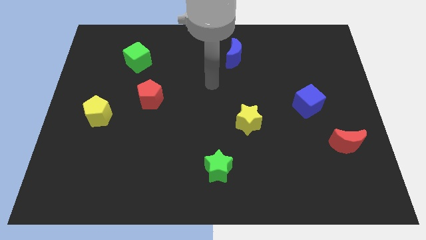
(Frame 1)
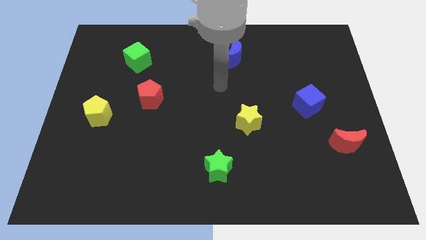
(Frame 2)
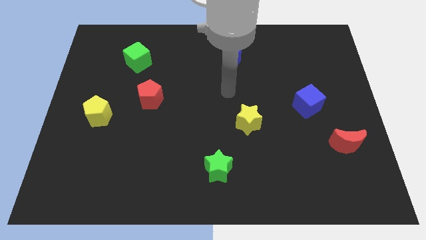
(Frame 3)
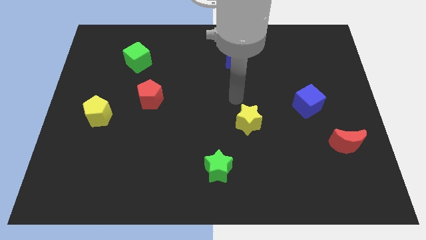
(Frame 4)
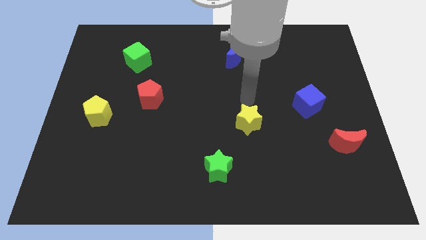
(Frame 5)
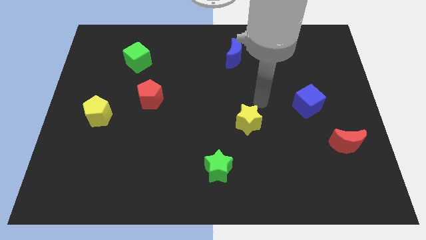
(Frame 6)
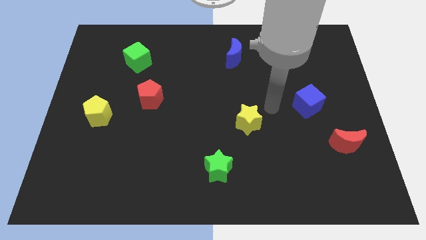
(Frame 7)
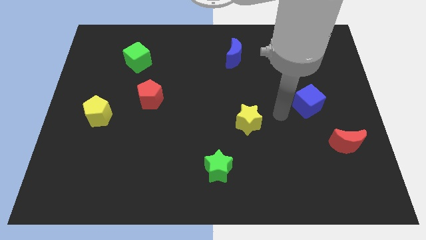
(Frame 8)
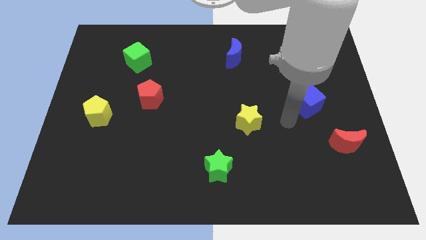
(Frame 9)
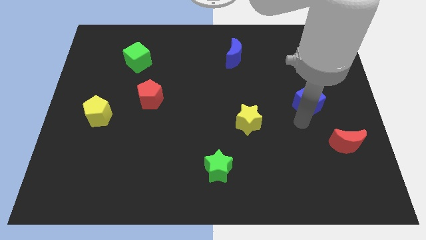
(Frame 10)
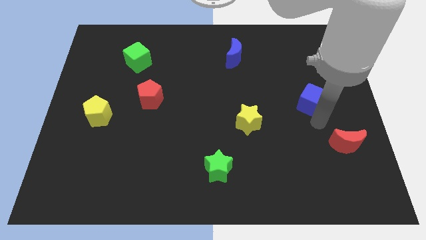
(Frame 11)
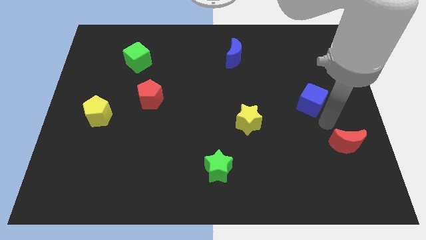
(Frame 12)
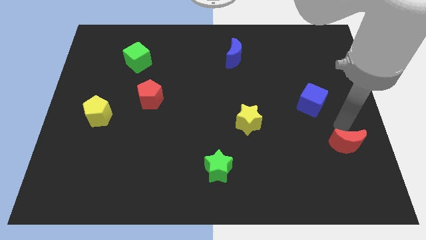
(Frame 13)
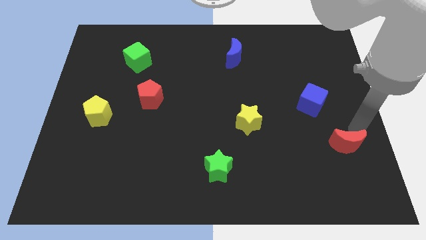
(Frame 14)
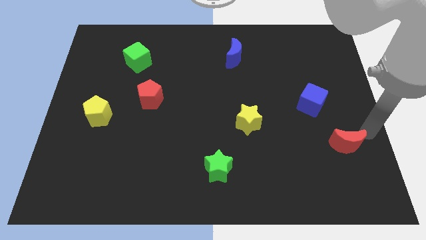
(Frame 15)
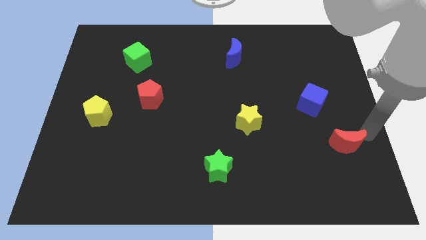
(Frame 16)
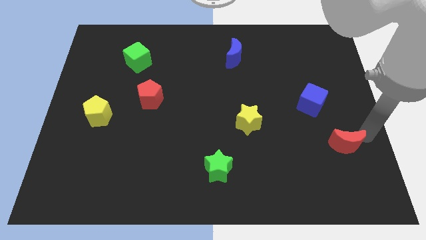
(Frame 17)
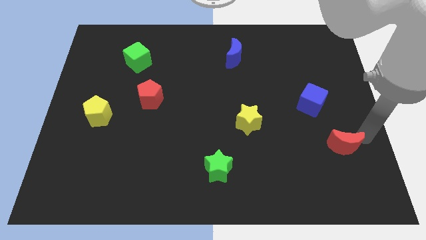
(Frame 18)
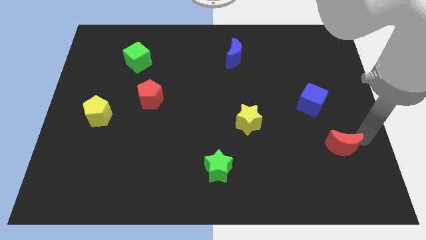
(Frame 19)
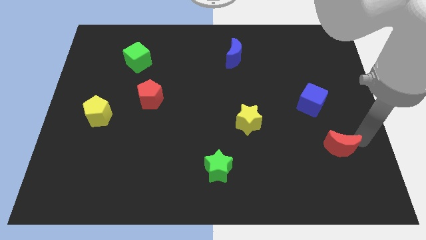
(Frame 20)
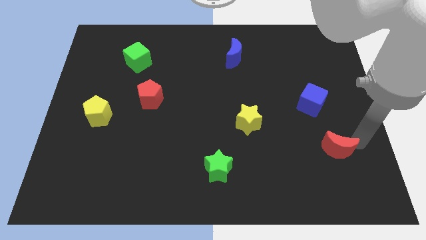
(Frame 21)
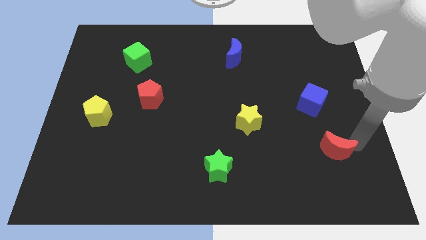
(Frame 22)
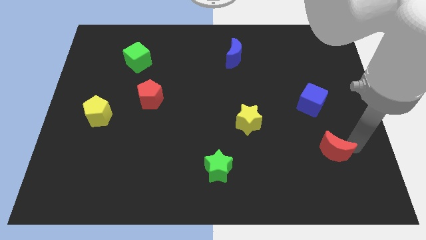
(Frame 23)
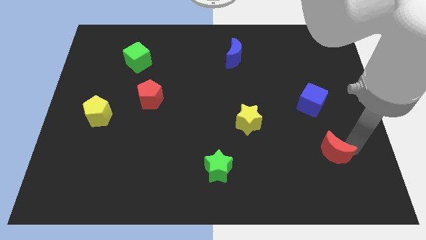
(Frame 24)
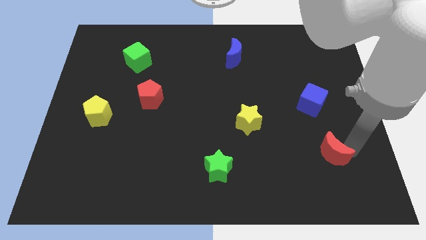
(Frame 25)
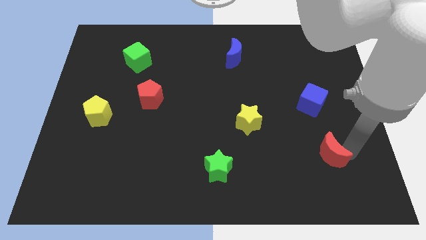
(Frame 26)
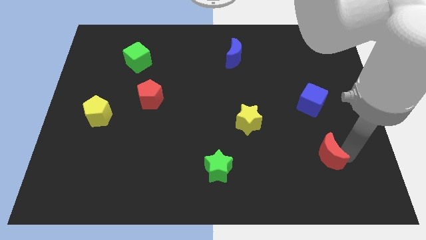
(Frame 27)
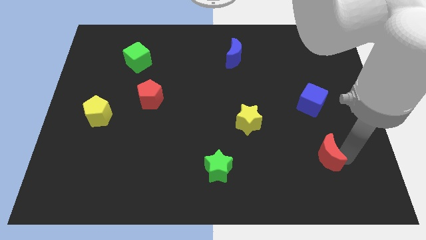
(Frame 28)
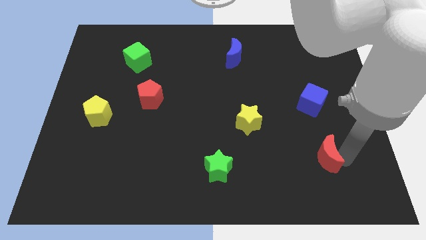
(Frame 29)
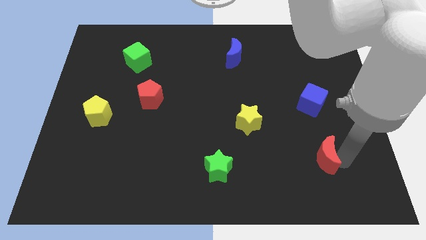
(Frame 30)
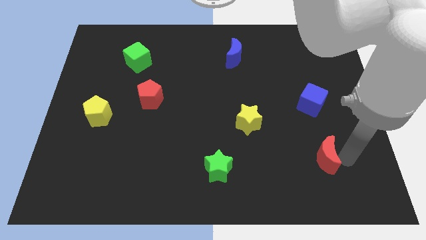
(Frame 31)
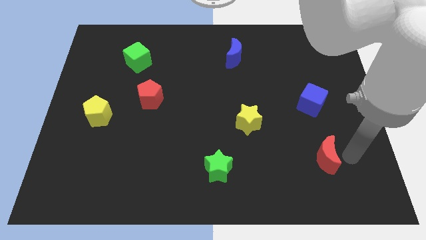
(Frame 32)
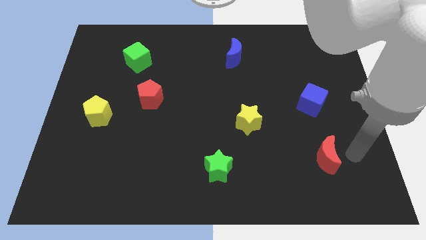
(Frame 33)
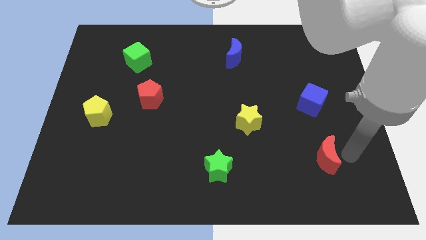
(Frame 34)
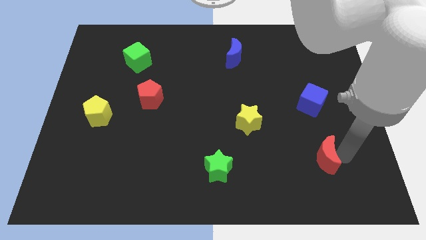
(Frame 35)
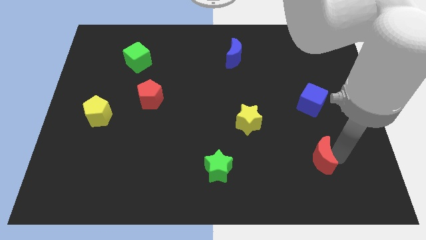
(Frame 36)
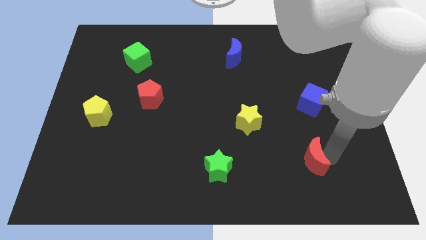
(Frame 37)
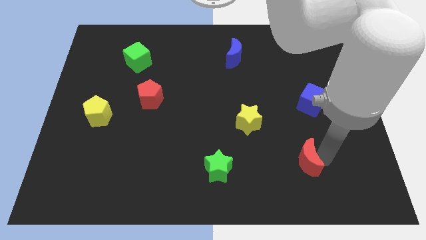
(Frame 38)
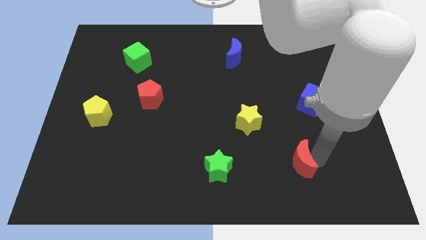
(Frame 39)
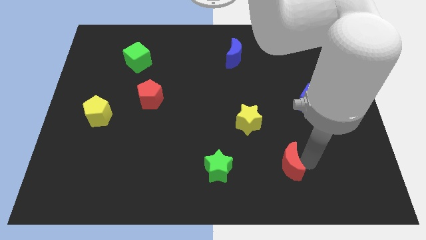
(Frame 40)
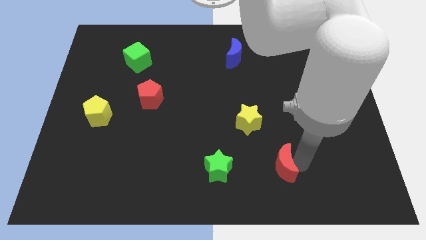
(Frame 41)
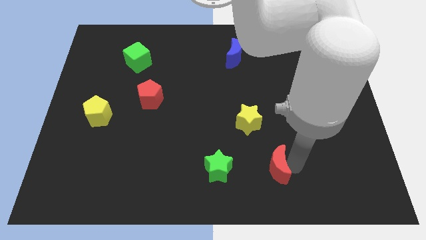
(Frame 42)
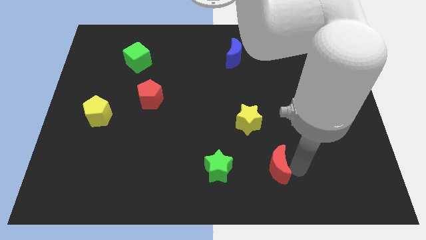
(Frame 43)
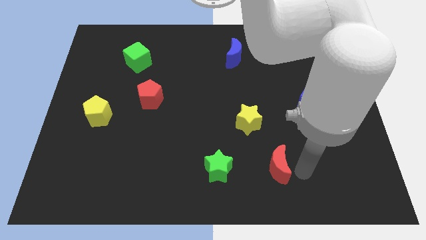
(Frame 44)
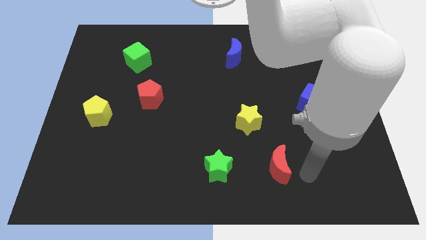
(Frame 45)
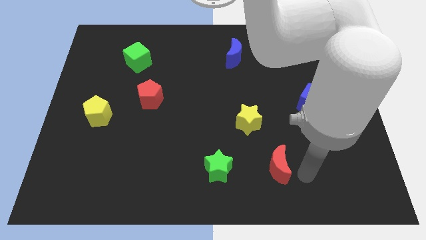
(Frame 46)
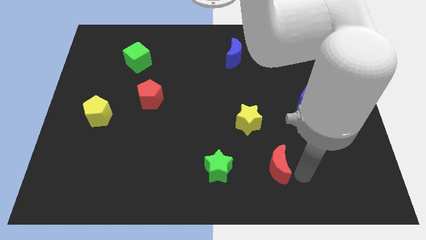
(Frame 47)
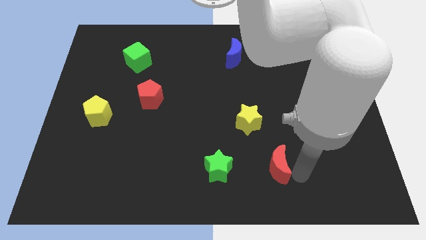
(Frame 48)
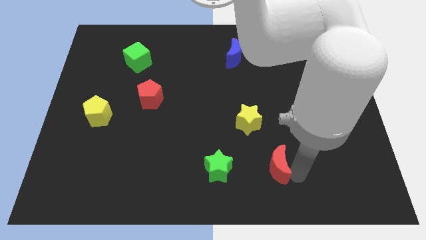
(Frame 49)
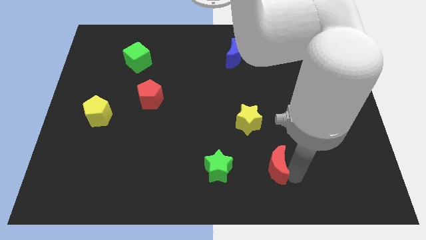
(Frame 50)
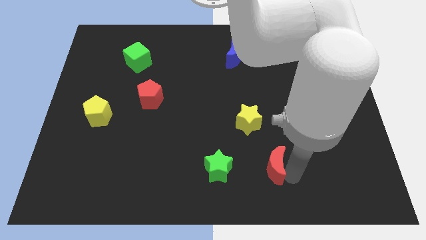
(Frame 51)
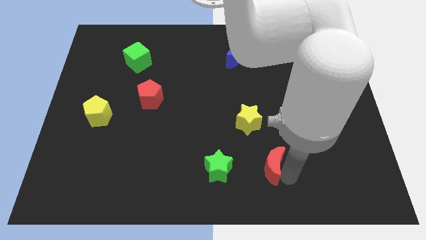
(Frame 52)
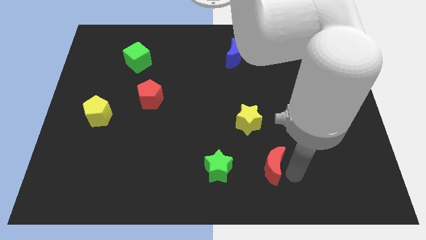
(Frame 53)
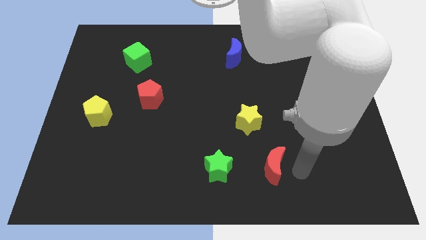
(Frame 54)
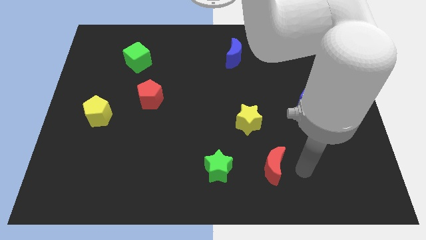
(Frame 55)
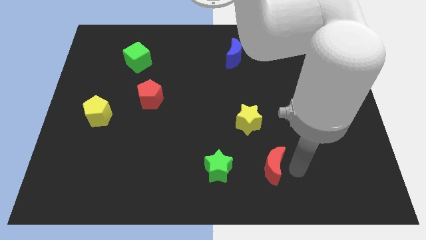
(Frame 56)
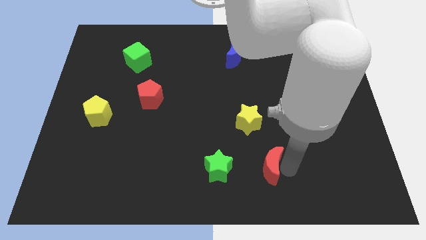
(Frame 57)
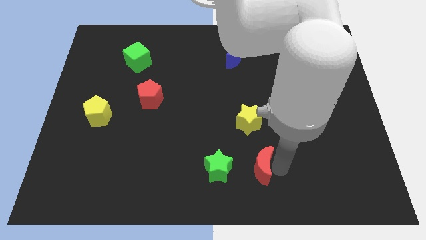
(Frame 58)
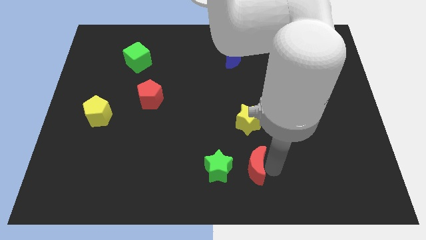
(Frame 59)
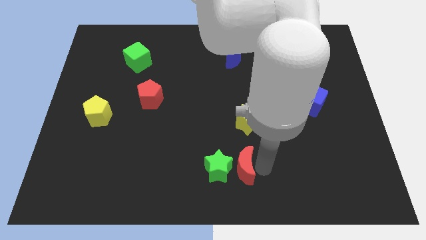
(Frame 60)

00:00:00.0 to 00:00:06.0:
push the red moon close to the green star

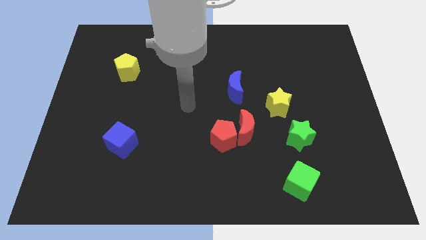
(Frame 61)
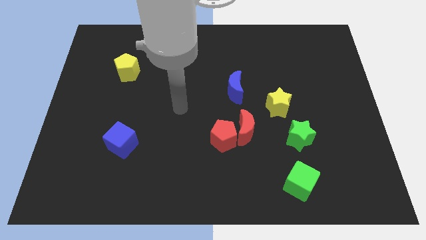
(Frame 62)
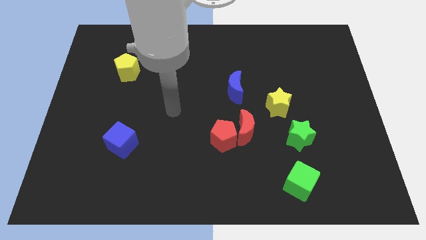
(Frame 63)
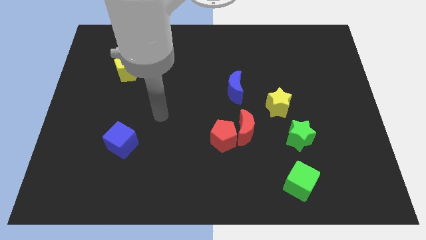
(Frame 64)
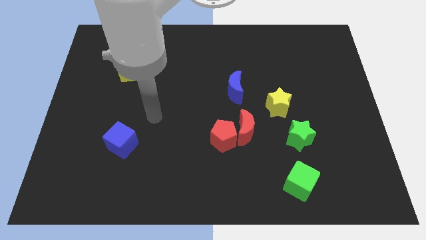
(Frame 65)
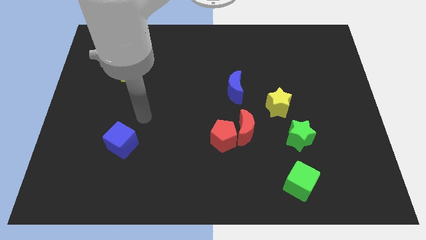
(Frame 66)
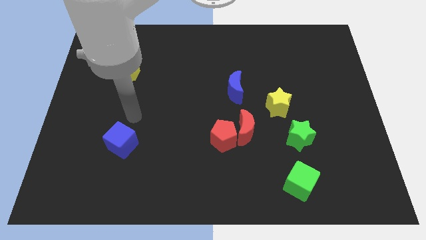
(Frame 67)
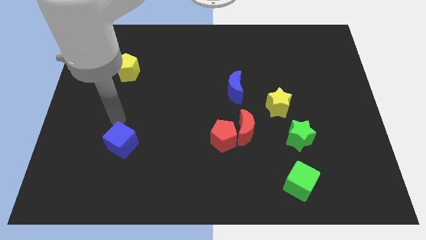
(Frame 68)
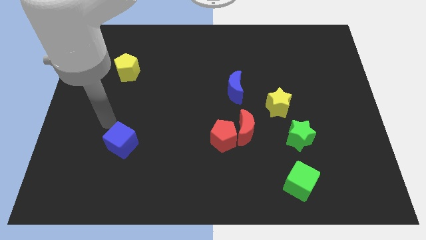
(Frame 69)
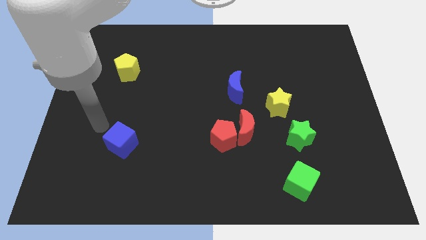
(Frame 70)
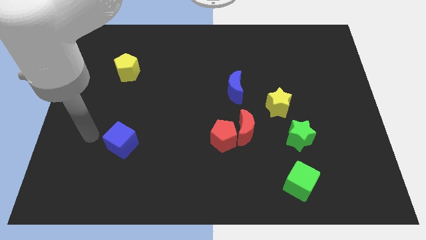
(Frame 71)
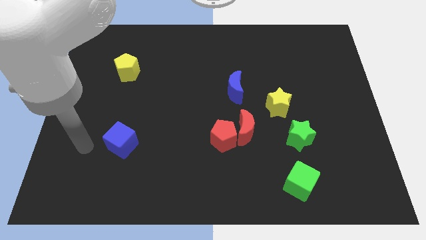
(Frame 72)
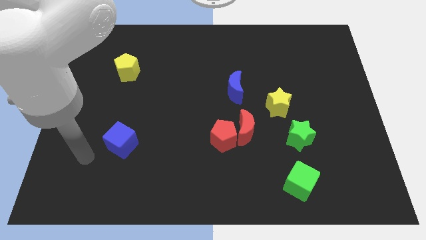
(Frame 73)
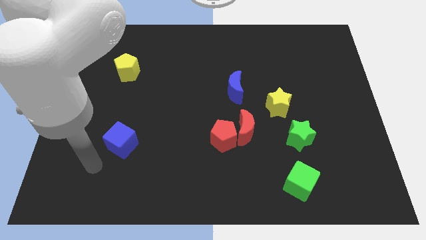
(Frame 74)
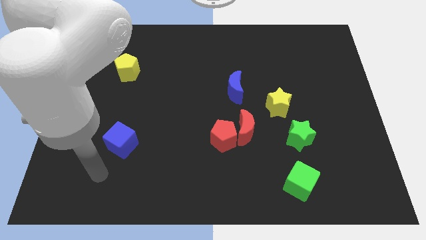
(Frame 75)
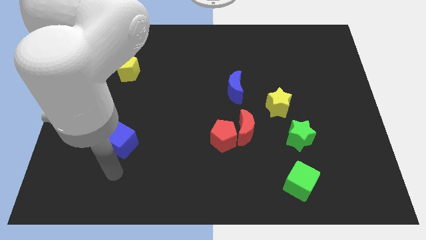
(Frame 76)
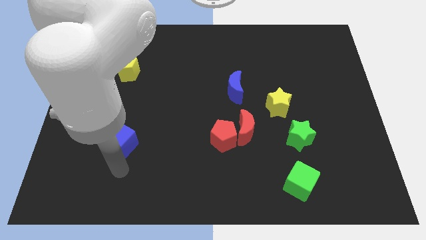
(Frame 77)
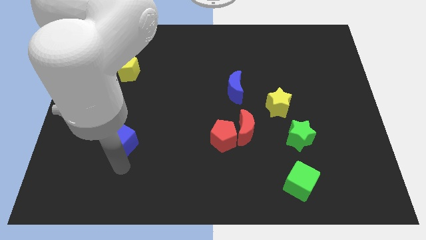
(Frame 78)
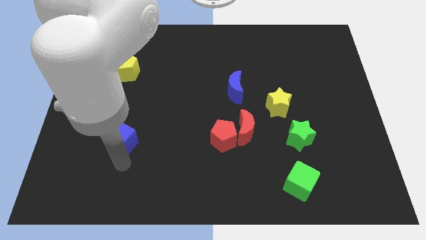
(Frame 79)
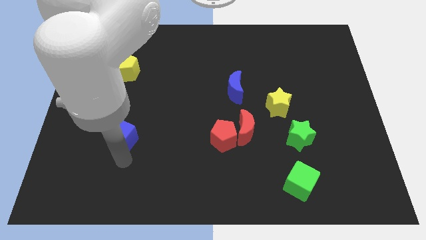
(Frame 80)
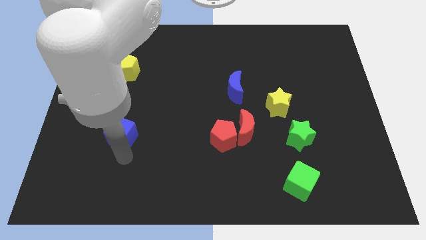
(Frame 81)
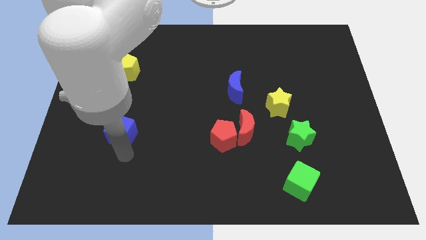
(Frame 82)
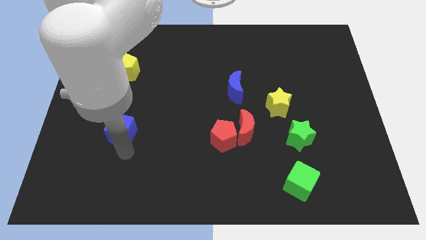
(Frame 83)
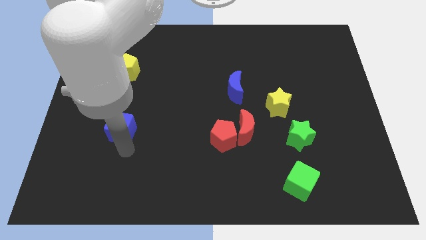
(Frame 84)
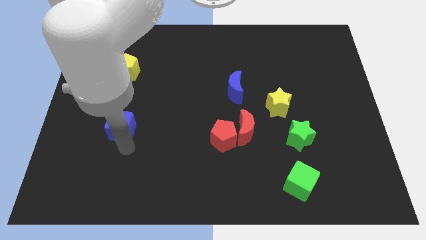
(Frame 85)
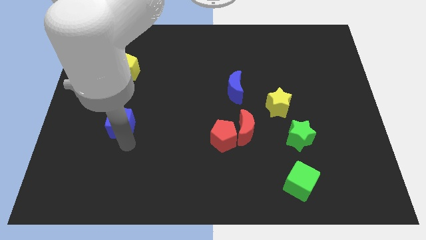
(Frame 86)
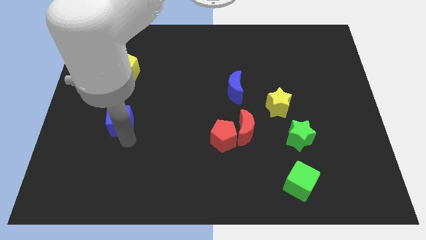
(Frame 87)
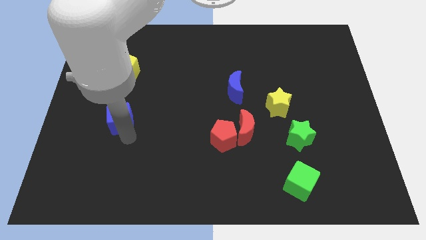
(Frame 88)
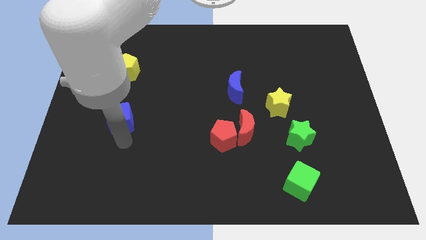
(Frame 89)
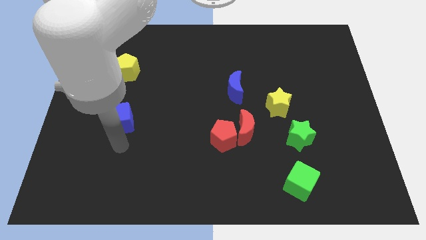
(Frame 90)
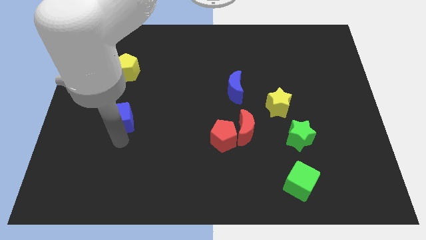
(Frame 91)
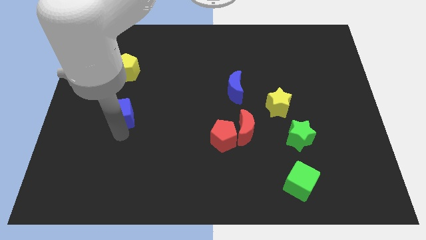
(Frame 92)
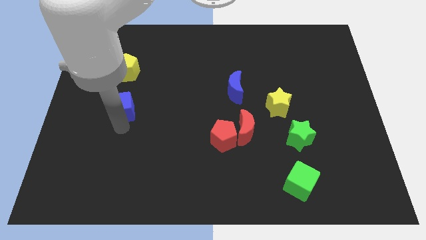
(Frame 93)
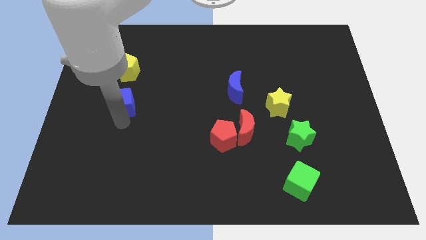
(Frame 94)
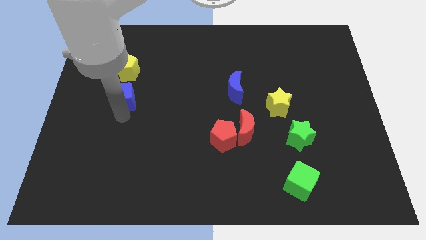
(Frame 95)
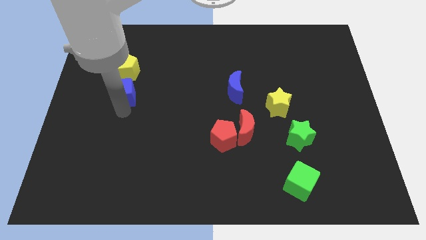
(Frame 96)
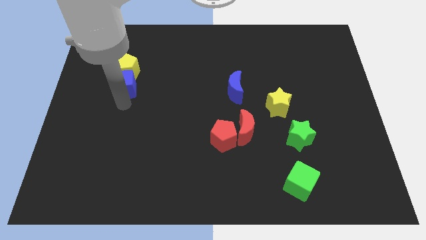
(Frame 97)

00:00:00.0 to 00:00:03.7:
put the blue cube next to the yellow pentagon
